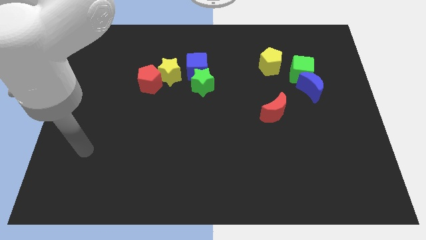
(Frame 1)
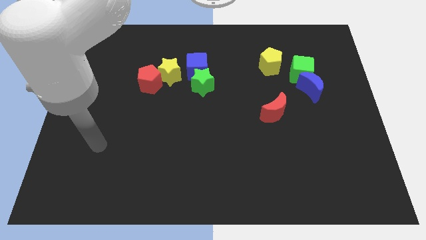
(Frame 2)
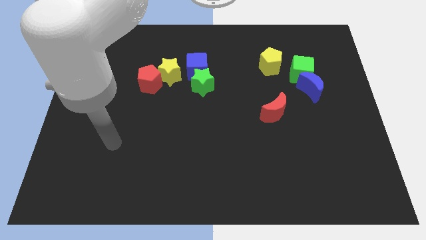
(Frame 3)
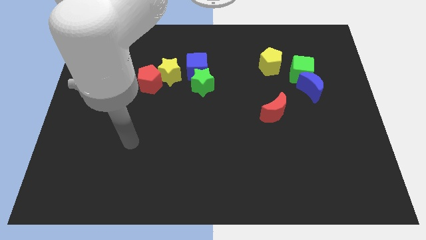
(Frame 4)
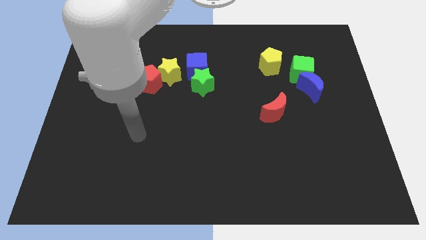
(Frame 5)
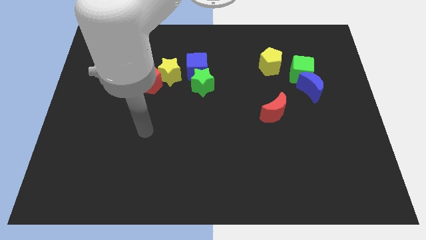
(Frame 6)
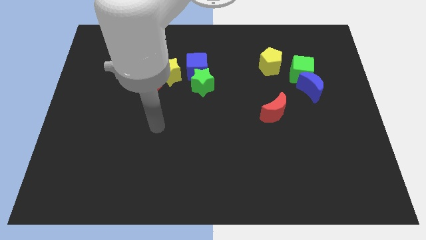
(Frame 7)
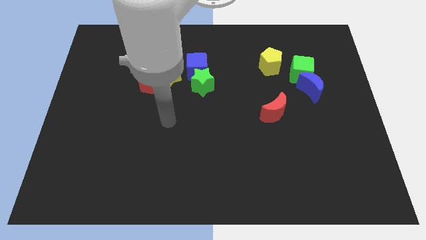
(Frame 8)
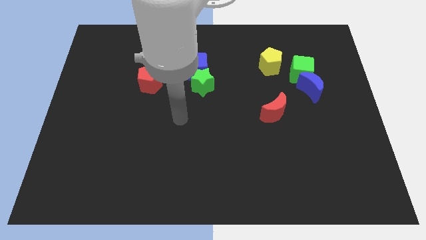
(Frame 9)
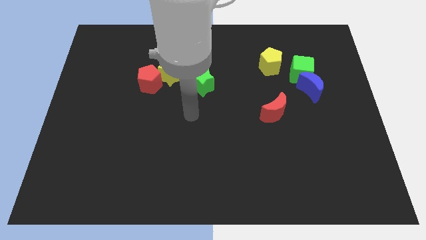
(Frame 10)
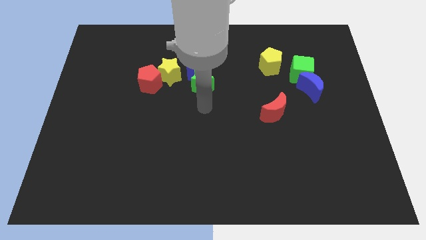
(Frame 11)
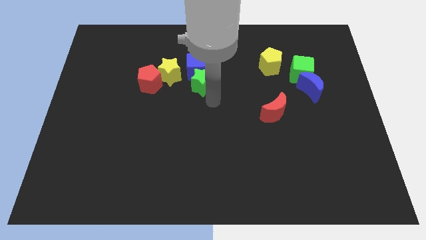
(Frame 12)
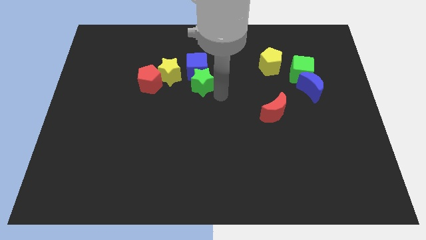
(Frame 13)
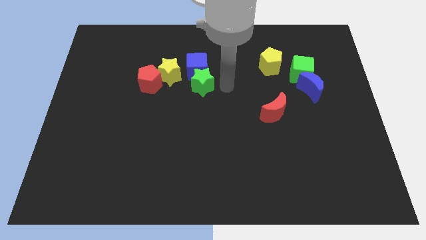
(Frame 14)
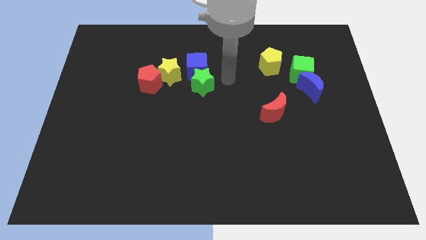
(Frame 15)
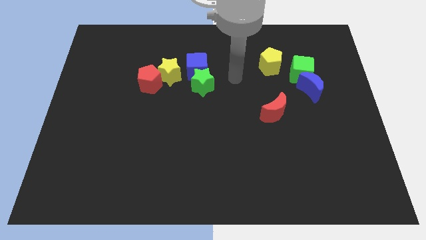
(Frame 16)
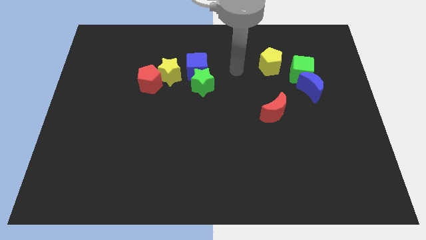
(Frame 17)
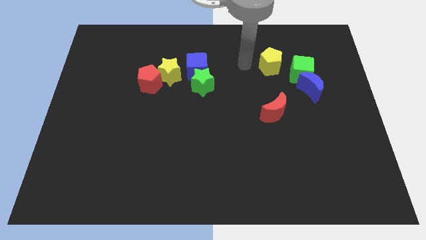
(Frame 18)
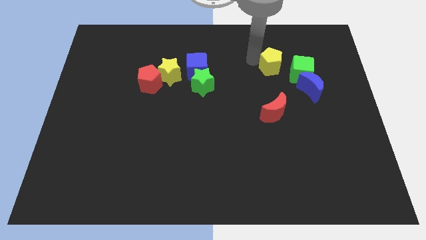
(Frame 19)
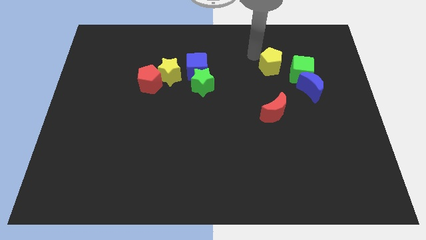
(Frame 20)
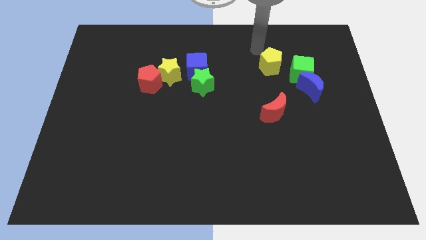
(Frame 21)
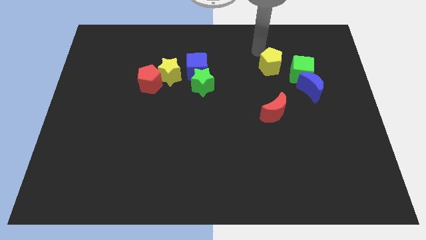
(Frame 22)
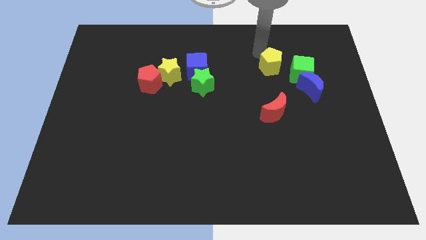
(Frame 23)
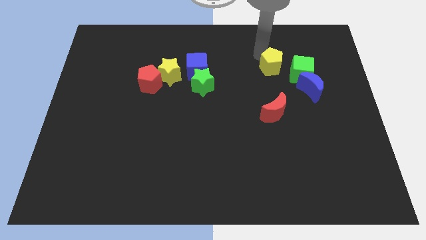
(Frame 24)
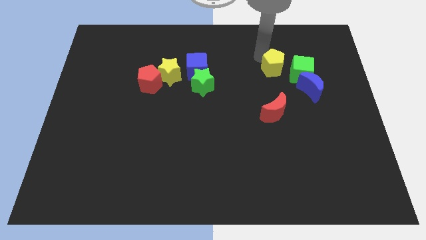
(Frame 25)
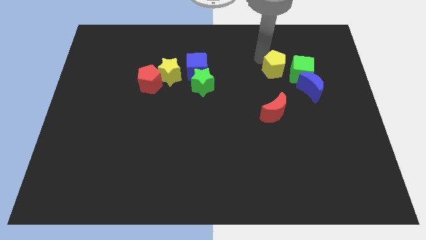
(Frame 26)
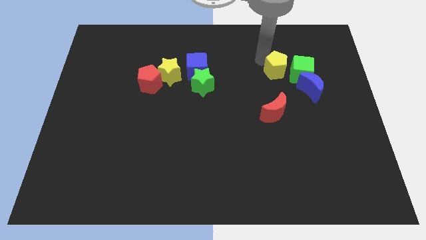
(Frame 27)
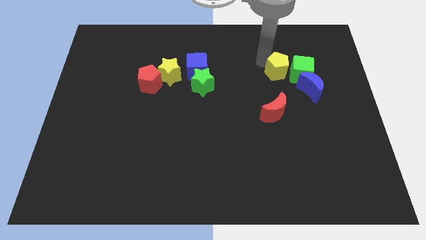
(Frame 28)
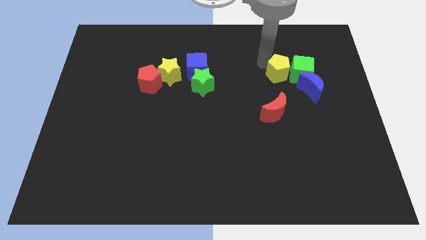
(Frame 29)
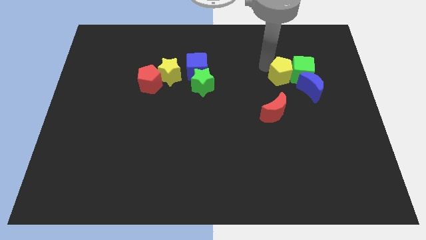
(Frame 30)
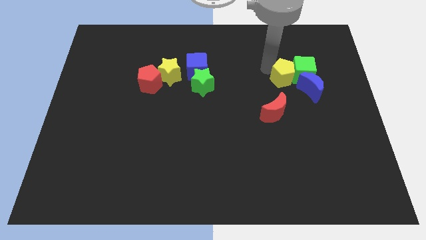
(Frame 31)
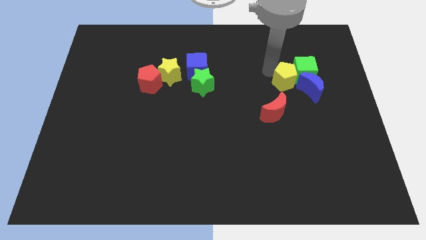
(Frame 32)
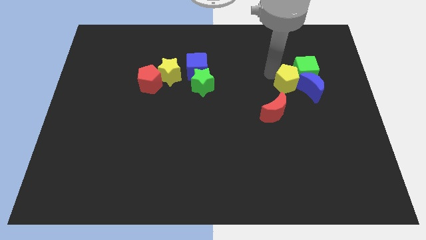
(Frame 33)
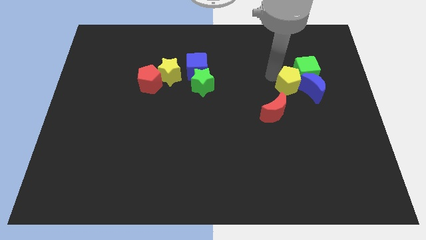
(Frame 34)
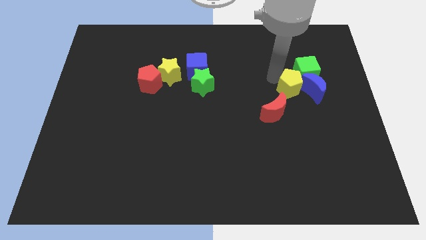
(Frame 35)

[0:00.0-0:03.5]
push the yellow pentagon downwards a little bit

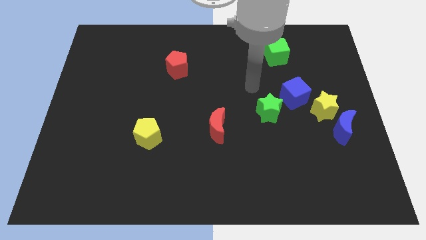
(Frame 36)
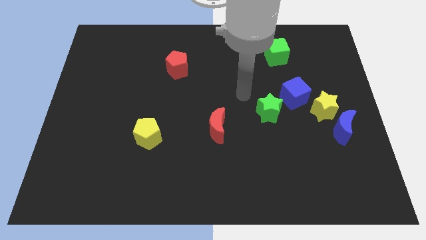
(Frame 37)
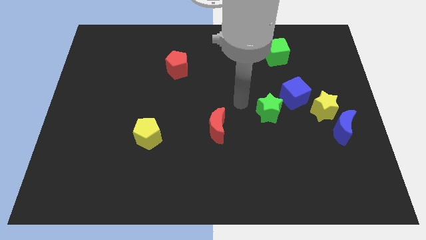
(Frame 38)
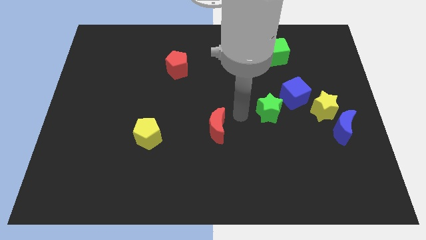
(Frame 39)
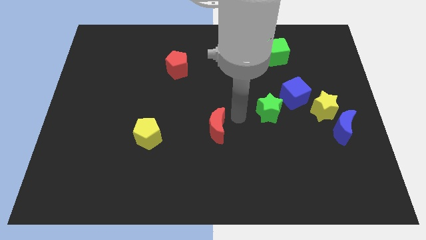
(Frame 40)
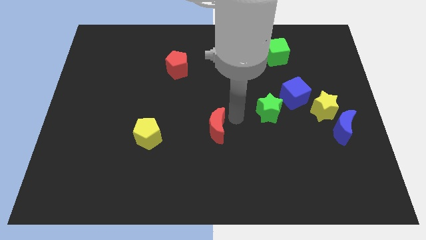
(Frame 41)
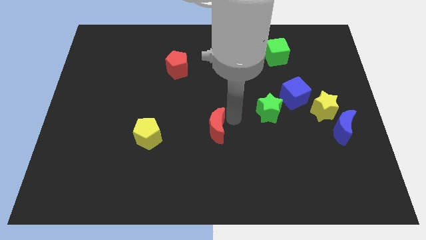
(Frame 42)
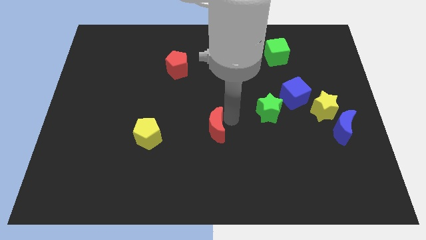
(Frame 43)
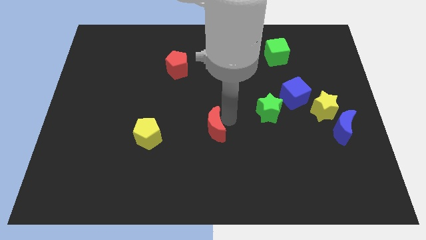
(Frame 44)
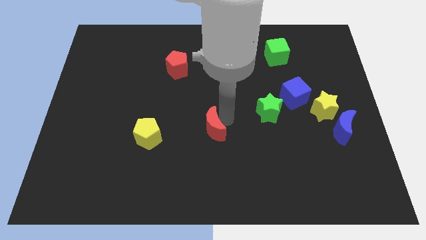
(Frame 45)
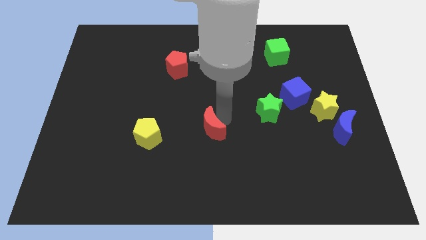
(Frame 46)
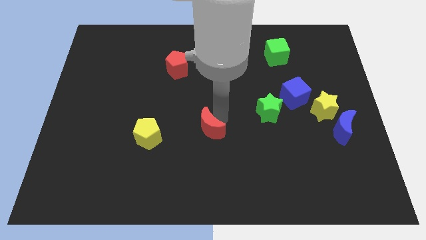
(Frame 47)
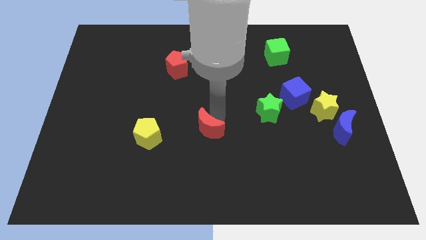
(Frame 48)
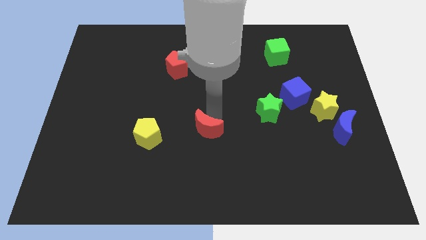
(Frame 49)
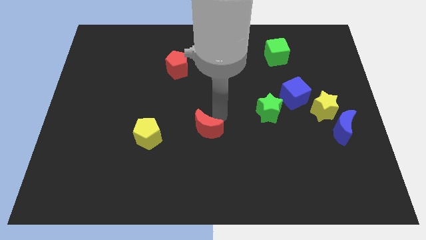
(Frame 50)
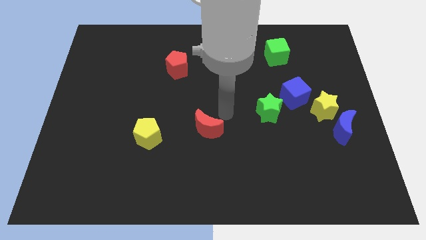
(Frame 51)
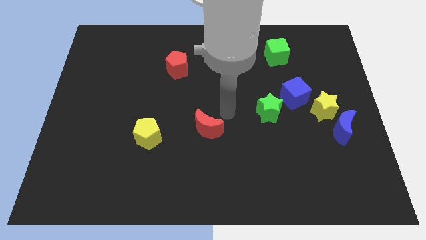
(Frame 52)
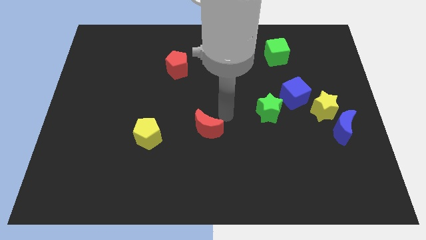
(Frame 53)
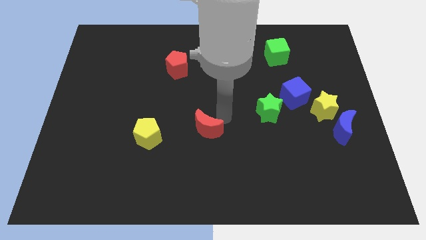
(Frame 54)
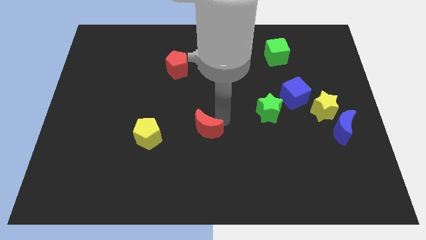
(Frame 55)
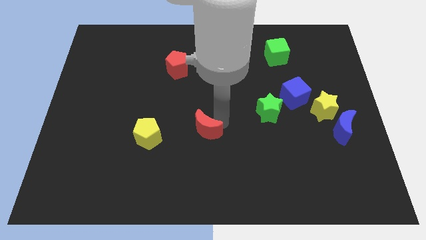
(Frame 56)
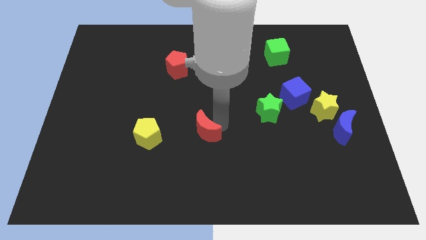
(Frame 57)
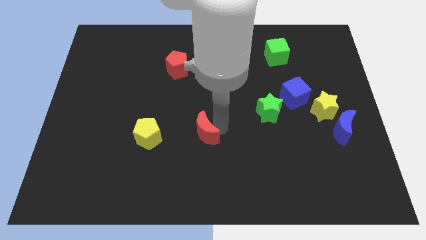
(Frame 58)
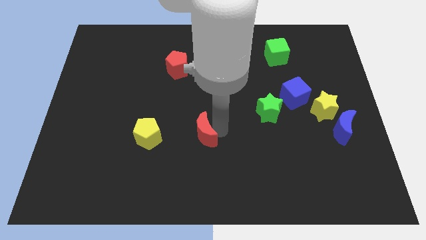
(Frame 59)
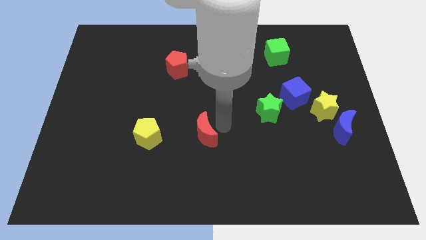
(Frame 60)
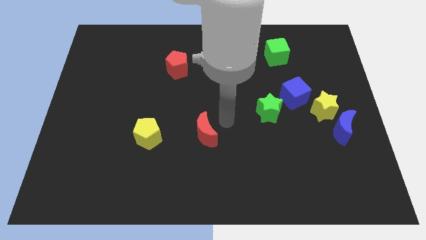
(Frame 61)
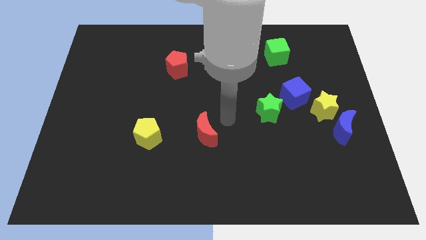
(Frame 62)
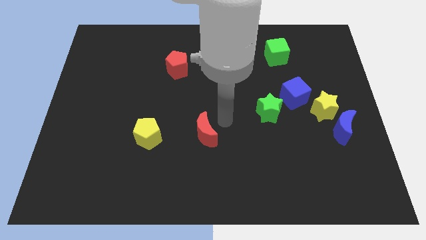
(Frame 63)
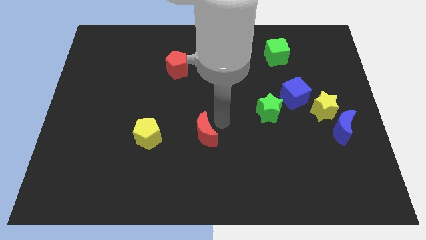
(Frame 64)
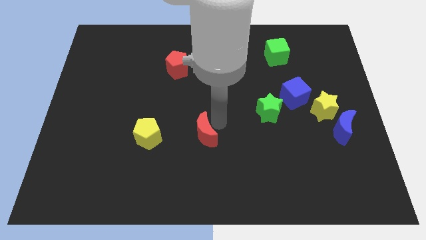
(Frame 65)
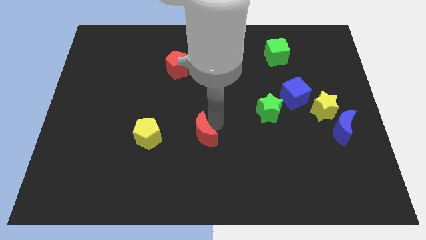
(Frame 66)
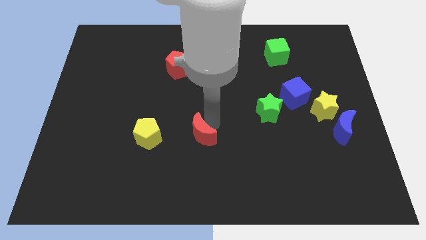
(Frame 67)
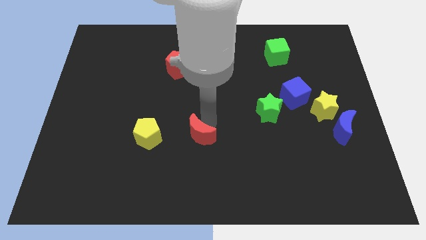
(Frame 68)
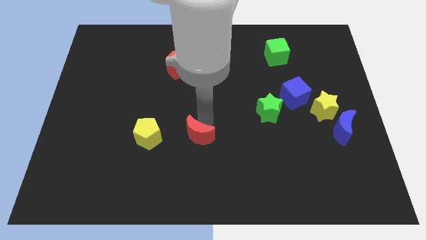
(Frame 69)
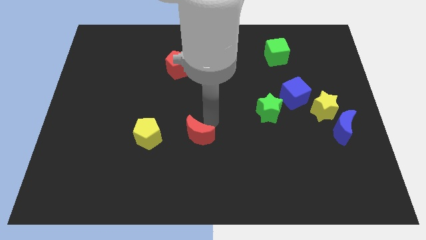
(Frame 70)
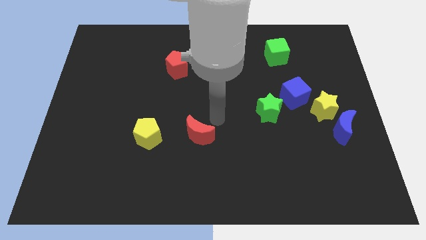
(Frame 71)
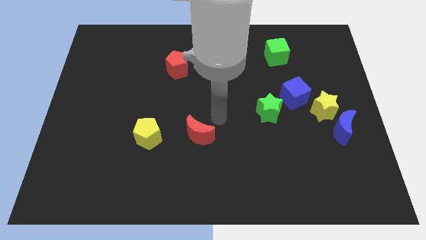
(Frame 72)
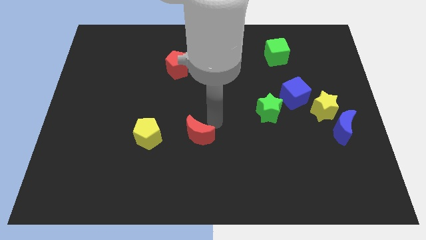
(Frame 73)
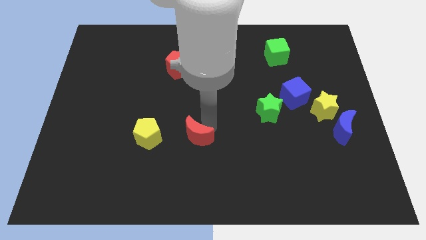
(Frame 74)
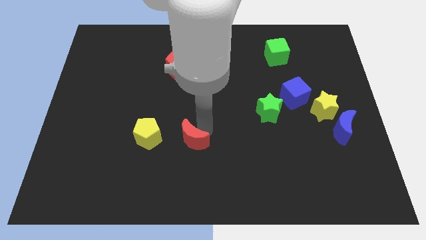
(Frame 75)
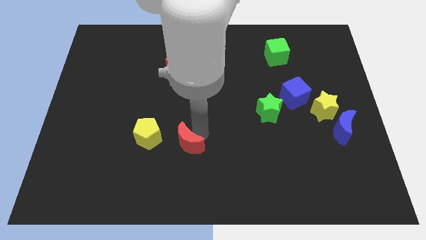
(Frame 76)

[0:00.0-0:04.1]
slightly move the red moon diagonally downwards and left

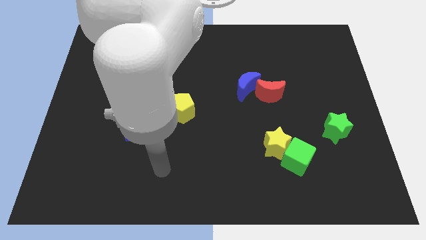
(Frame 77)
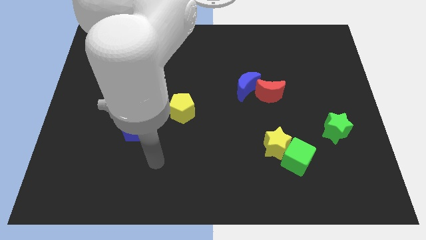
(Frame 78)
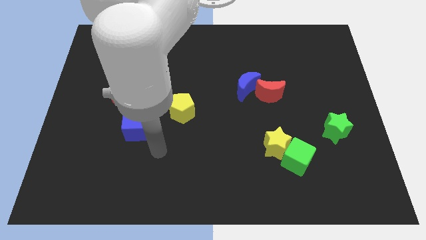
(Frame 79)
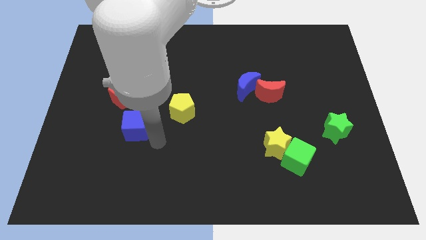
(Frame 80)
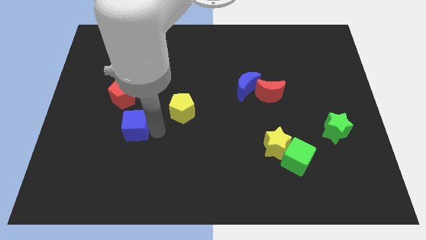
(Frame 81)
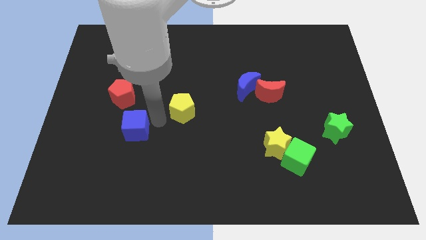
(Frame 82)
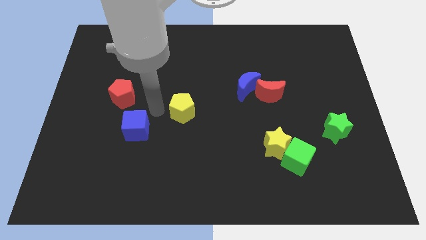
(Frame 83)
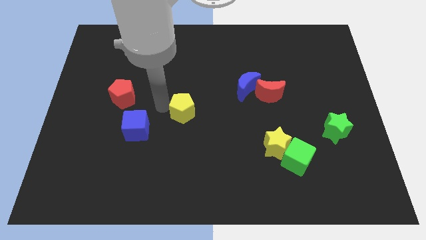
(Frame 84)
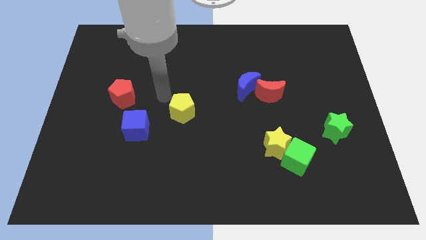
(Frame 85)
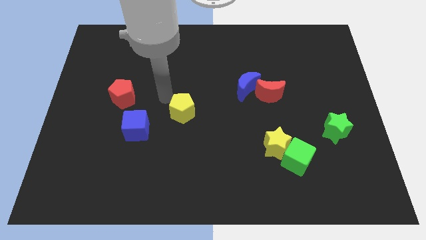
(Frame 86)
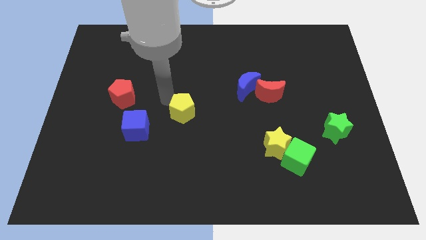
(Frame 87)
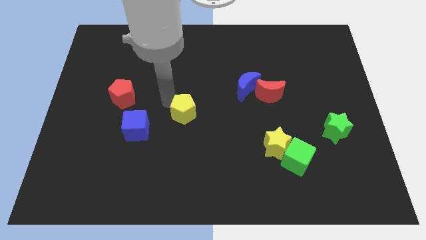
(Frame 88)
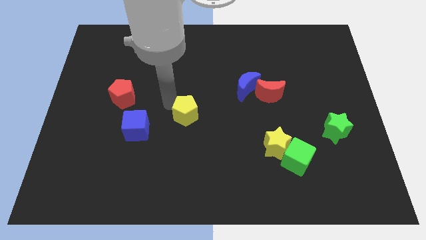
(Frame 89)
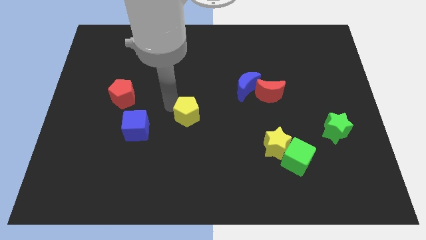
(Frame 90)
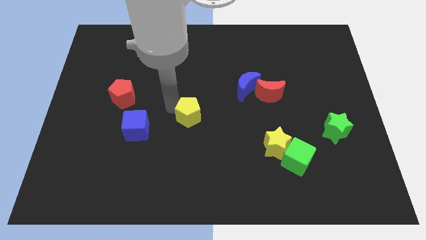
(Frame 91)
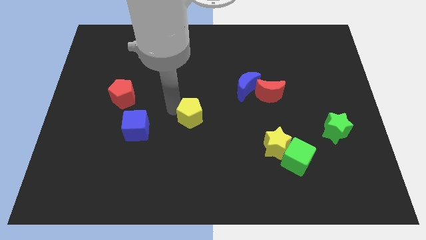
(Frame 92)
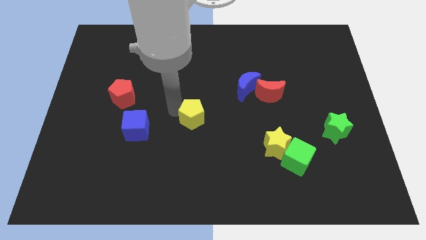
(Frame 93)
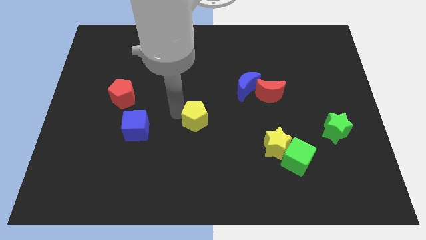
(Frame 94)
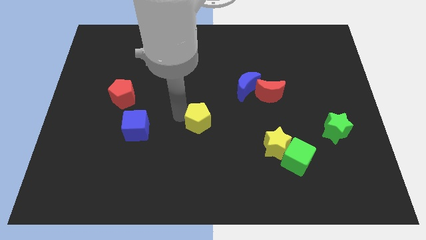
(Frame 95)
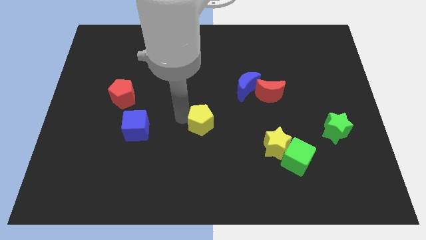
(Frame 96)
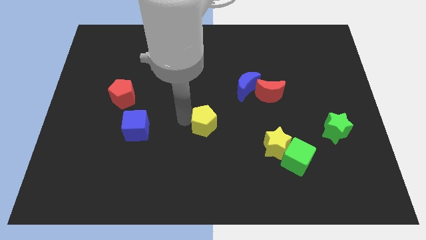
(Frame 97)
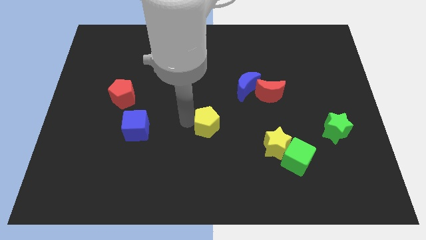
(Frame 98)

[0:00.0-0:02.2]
push the yellow pentagon slightly downwards and right diagonally
